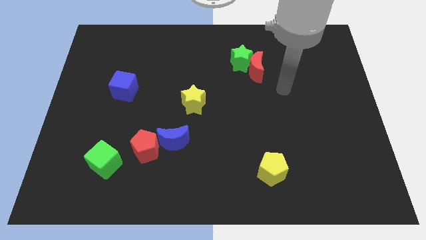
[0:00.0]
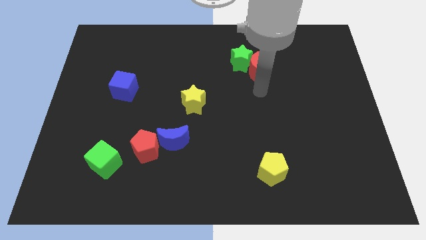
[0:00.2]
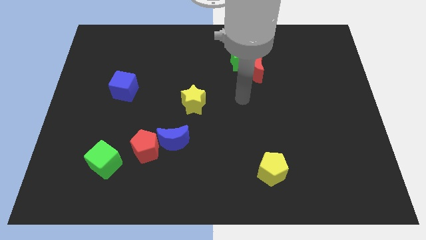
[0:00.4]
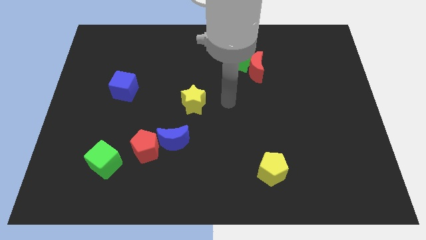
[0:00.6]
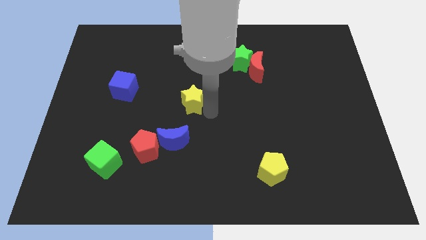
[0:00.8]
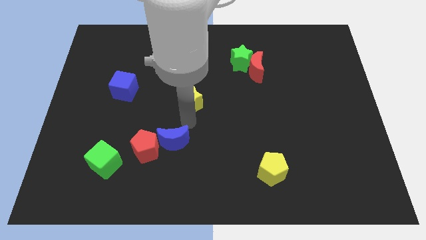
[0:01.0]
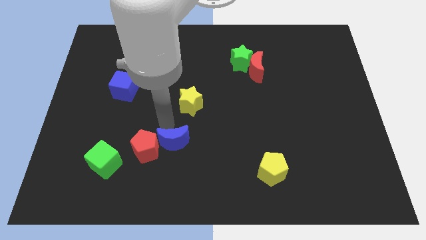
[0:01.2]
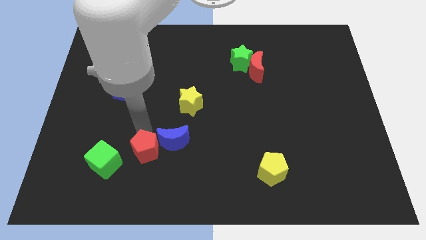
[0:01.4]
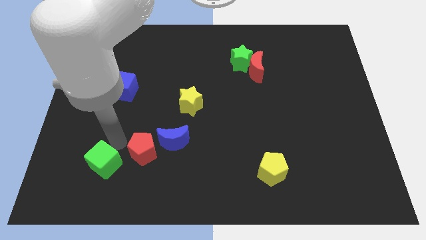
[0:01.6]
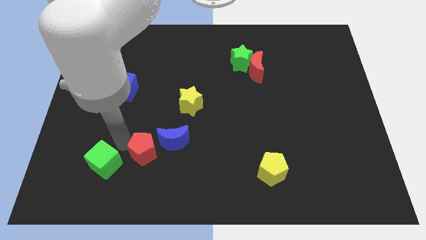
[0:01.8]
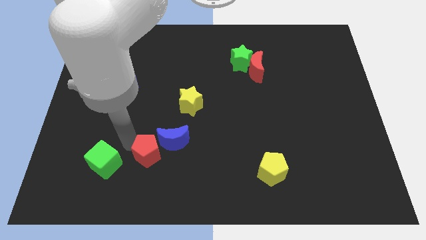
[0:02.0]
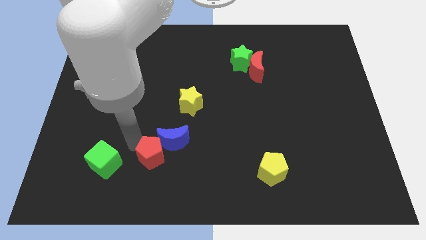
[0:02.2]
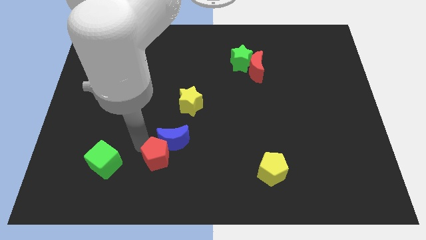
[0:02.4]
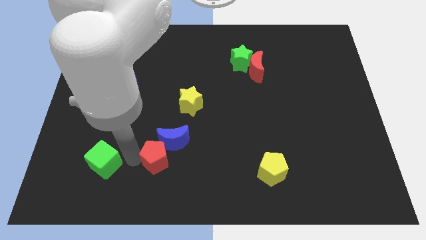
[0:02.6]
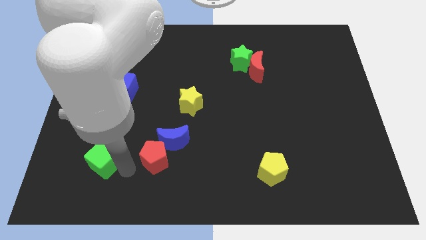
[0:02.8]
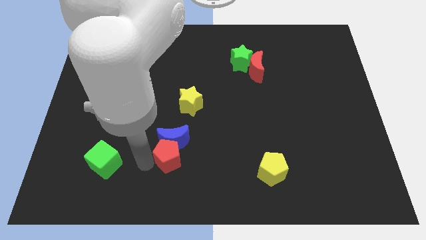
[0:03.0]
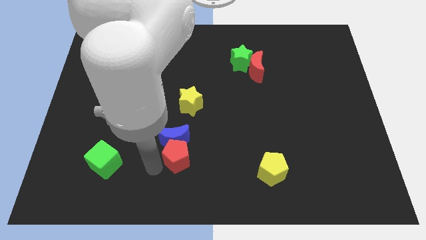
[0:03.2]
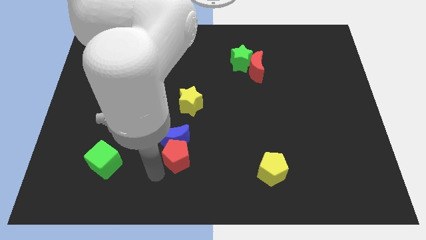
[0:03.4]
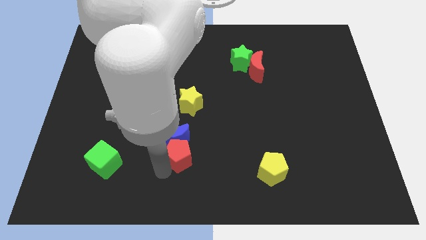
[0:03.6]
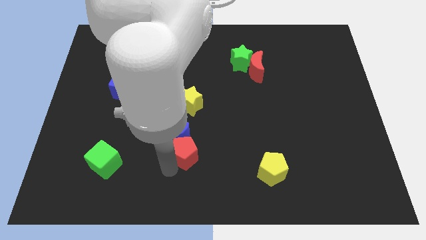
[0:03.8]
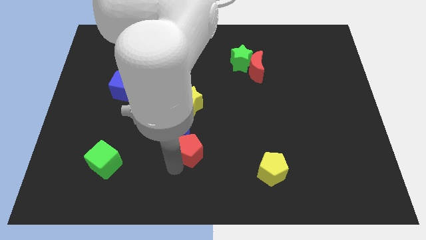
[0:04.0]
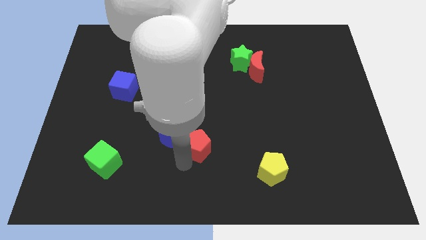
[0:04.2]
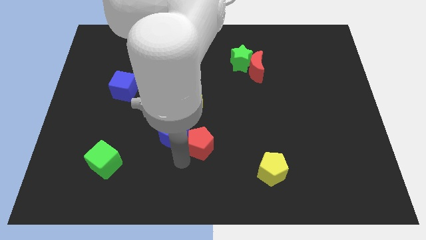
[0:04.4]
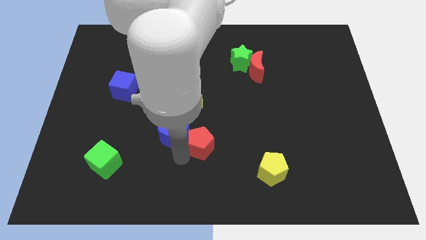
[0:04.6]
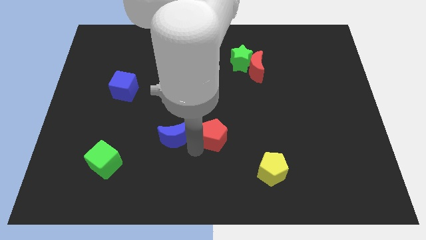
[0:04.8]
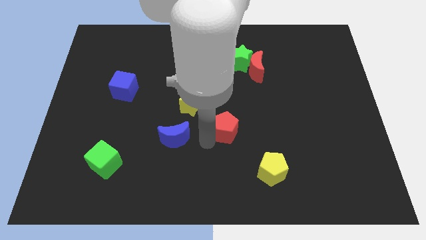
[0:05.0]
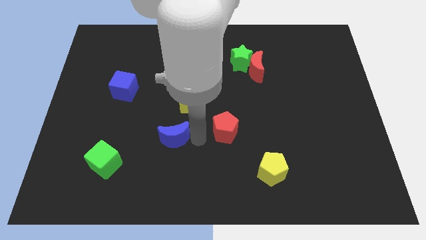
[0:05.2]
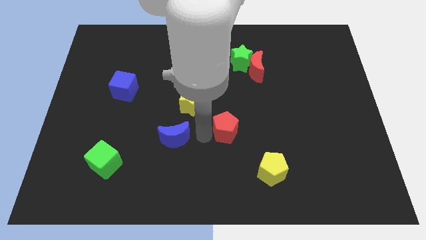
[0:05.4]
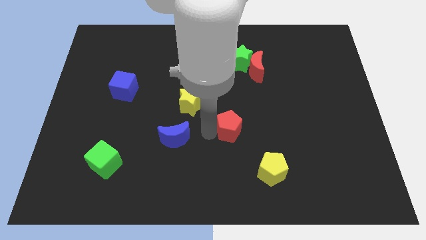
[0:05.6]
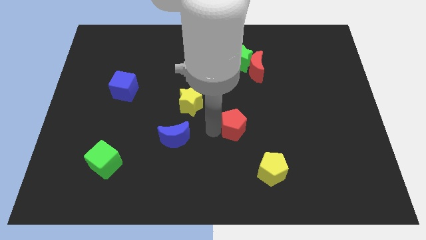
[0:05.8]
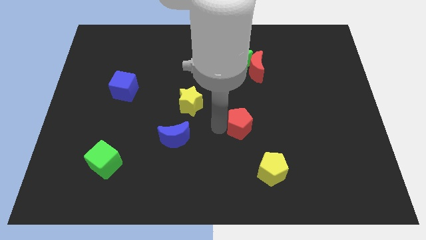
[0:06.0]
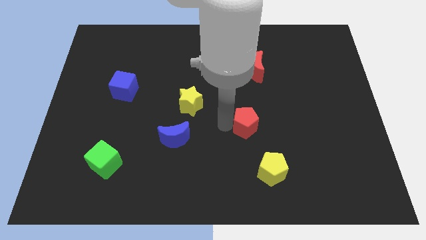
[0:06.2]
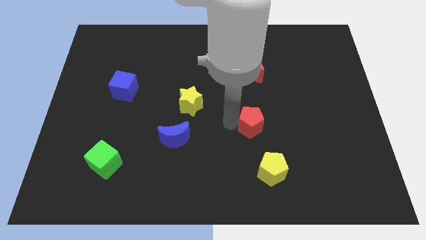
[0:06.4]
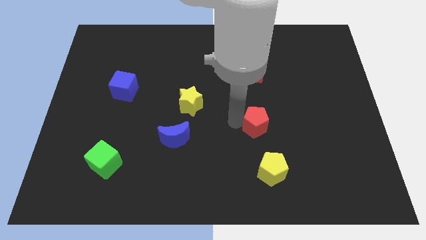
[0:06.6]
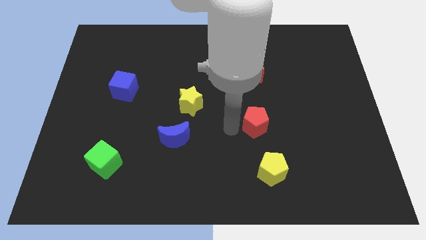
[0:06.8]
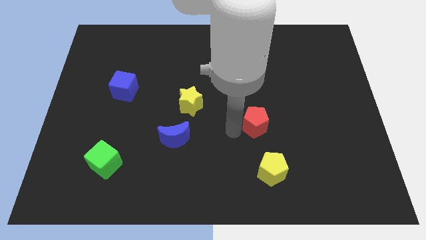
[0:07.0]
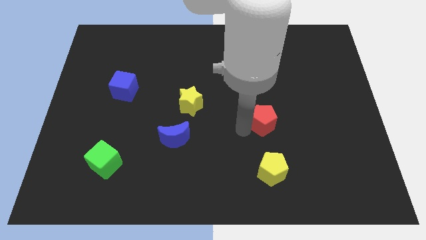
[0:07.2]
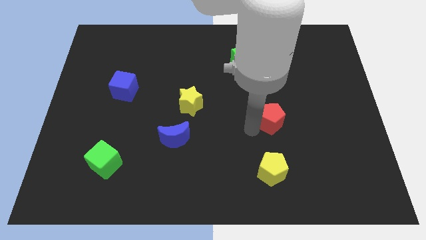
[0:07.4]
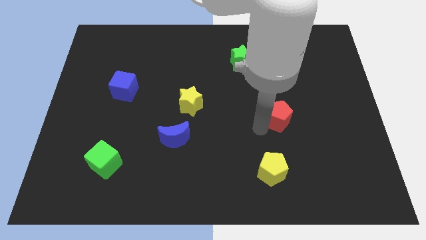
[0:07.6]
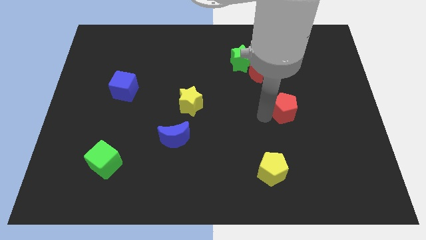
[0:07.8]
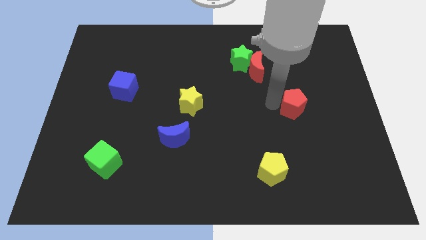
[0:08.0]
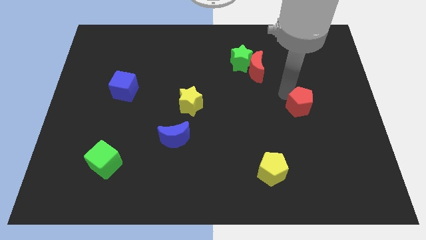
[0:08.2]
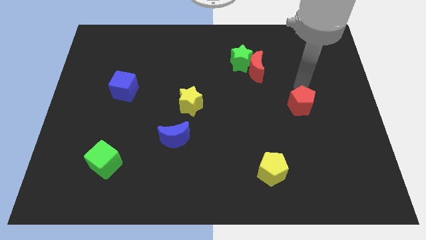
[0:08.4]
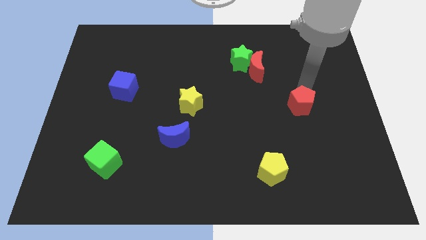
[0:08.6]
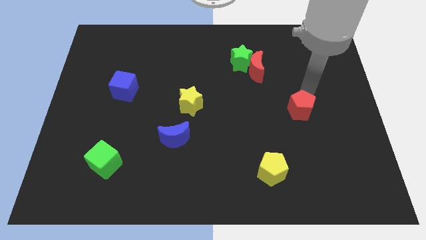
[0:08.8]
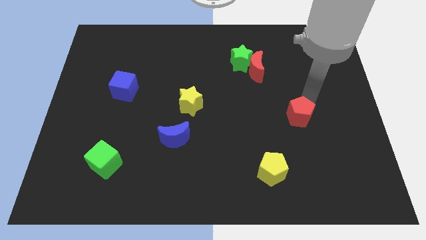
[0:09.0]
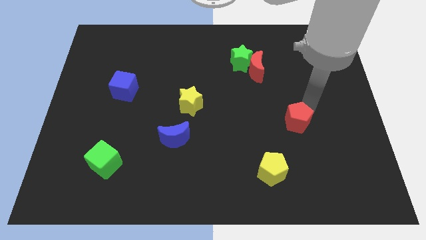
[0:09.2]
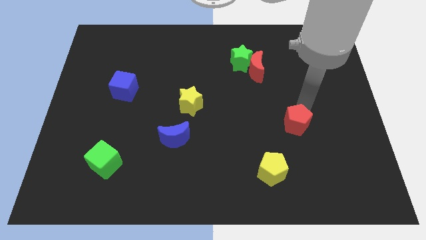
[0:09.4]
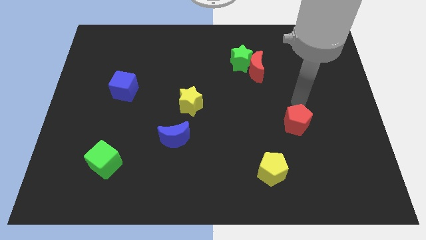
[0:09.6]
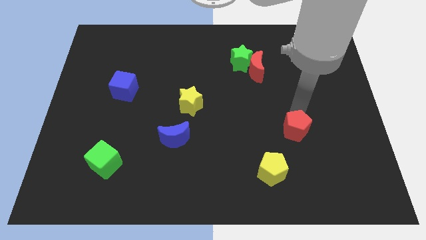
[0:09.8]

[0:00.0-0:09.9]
move the red pentagon to the top right of the yellow pentagon

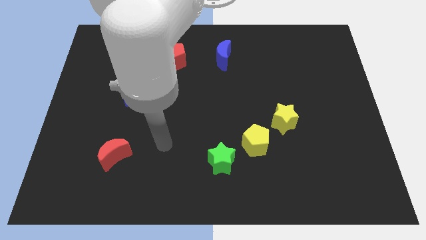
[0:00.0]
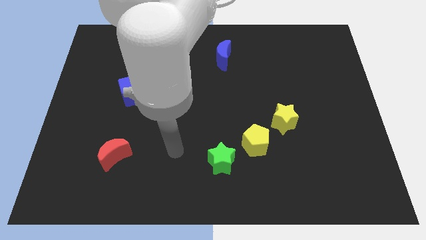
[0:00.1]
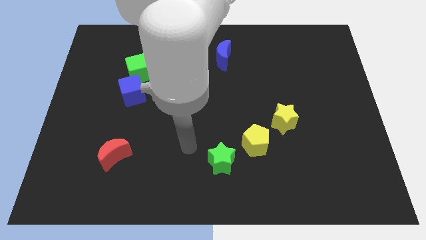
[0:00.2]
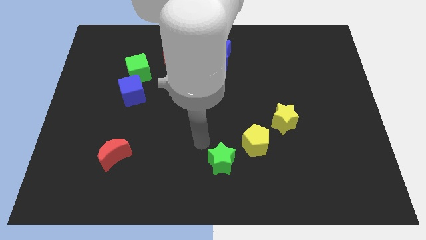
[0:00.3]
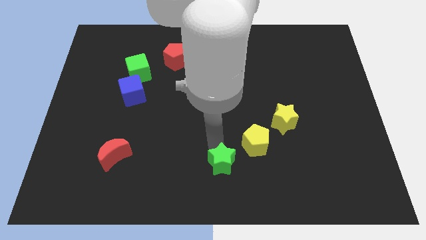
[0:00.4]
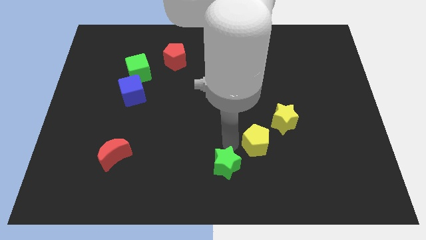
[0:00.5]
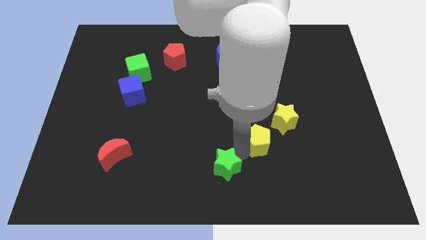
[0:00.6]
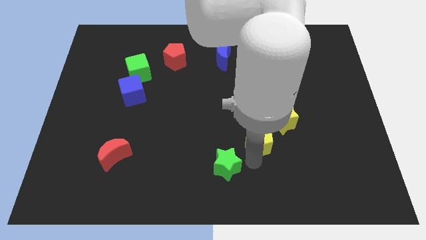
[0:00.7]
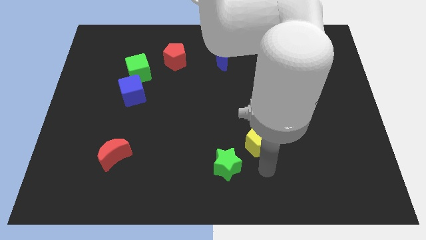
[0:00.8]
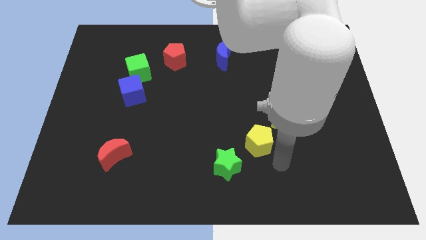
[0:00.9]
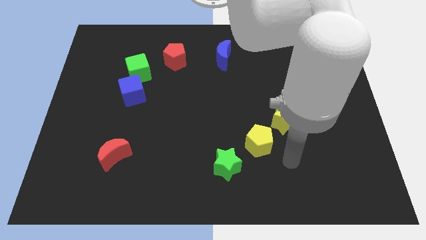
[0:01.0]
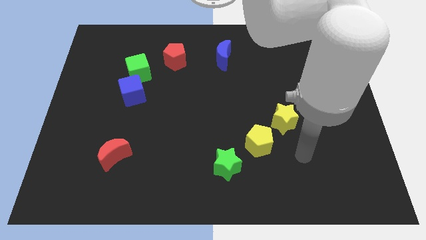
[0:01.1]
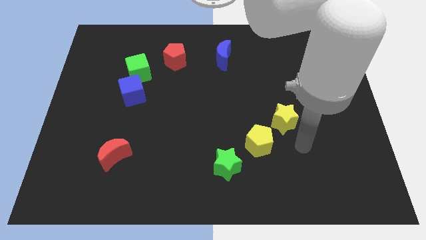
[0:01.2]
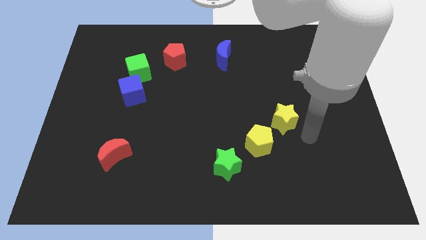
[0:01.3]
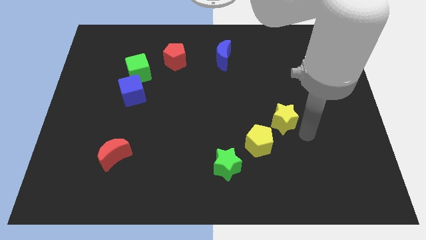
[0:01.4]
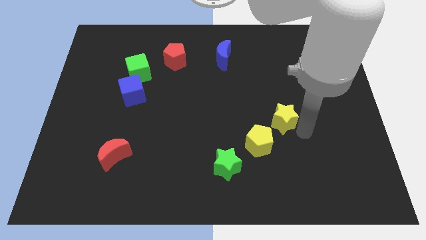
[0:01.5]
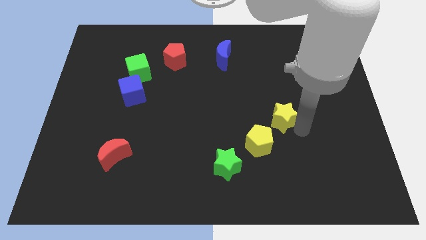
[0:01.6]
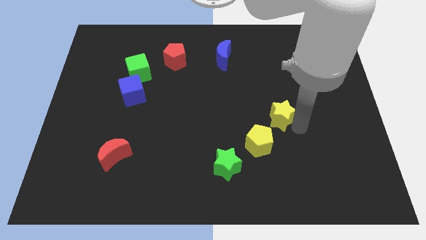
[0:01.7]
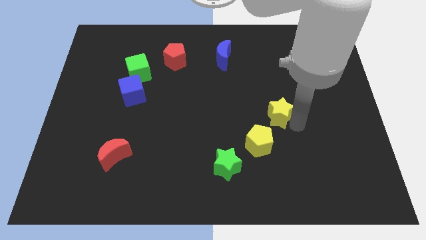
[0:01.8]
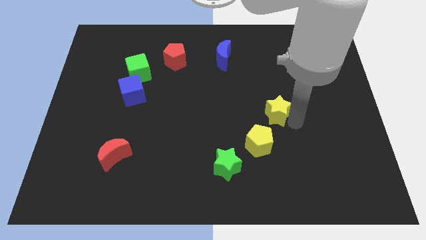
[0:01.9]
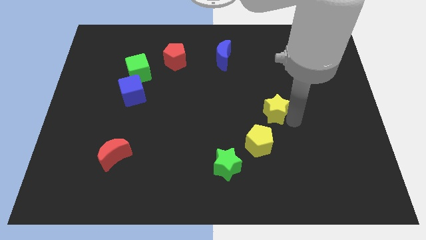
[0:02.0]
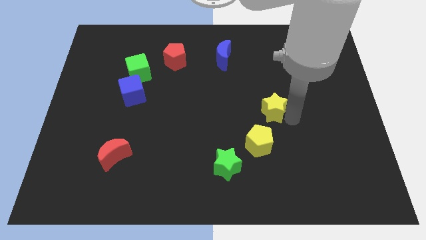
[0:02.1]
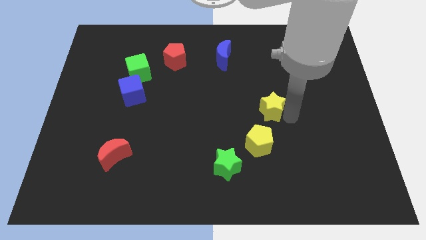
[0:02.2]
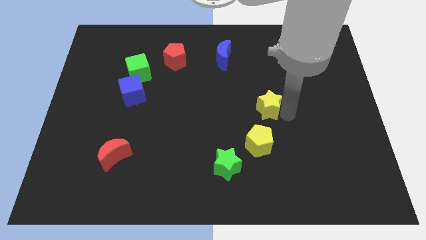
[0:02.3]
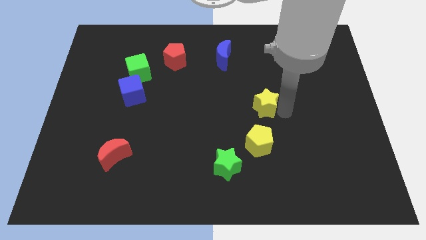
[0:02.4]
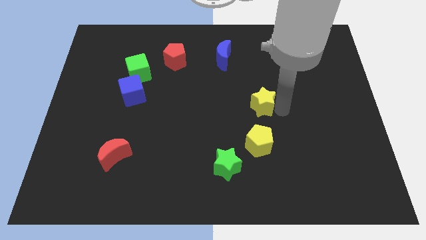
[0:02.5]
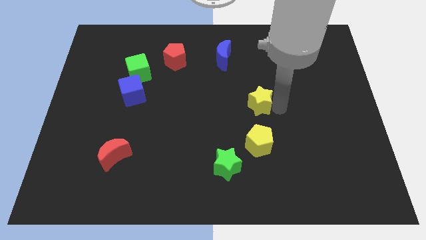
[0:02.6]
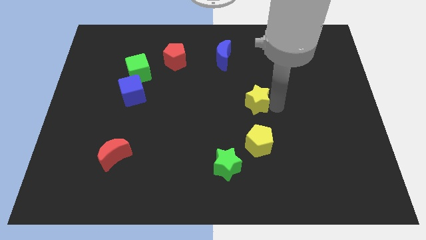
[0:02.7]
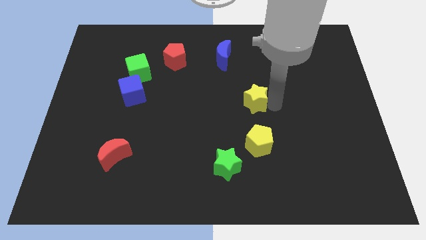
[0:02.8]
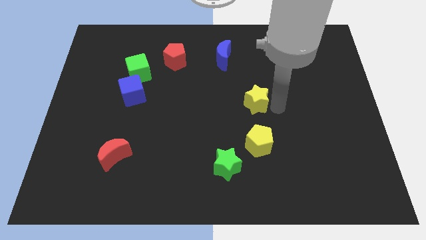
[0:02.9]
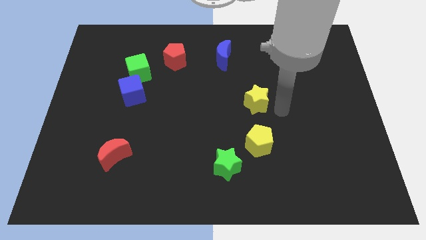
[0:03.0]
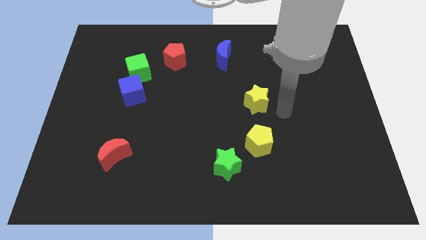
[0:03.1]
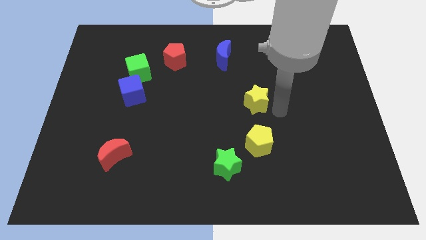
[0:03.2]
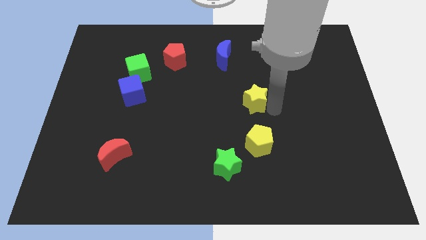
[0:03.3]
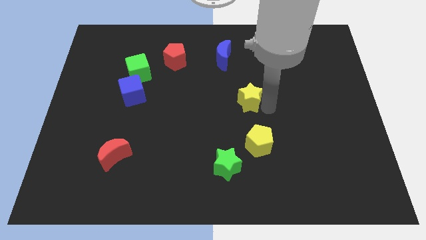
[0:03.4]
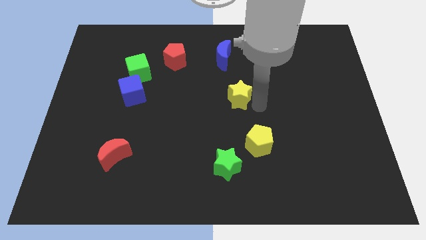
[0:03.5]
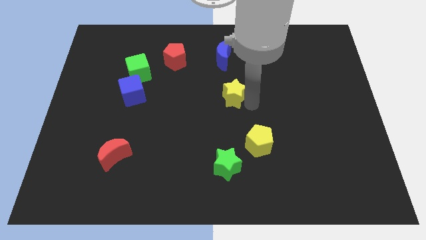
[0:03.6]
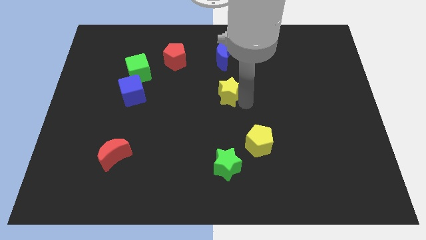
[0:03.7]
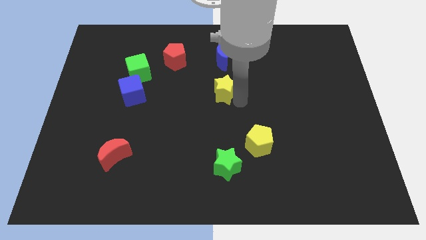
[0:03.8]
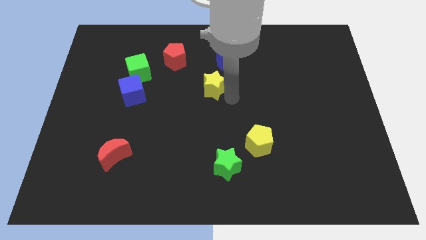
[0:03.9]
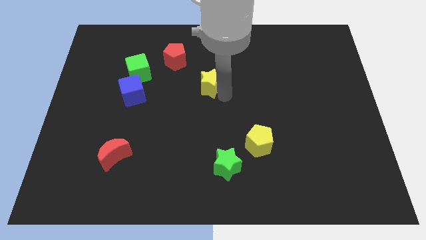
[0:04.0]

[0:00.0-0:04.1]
move the yellow star to the bottom left of the blue moon
